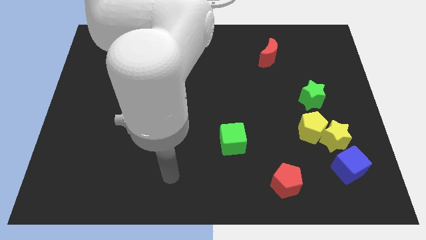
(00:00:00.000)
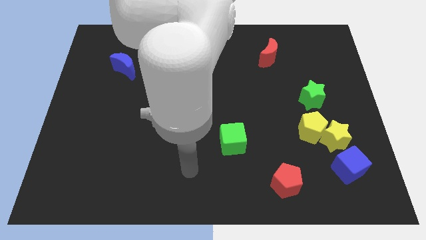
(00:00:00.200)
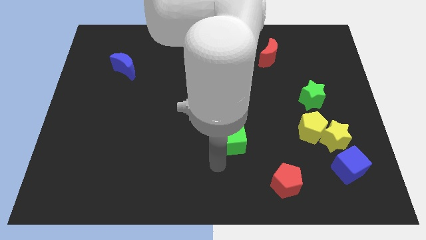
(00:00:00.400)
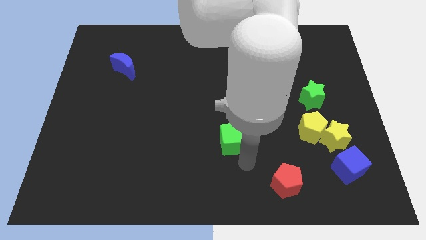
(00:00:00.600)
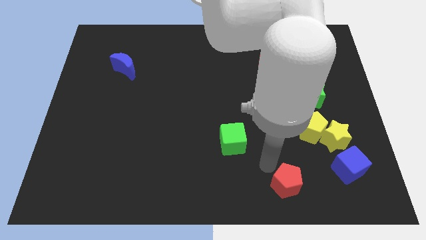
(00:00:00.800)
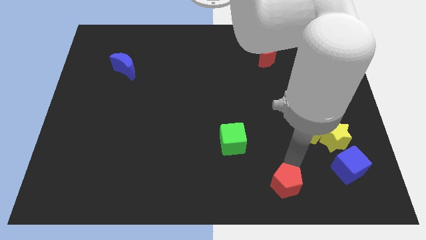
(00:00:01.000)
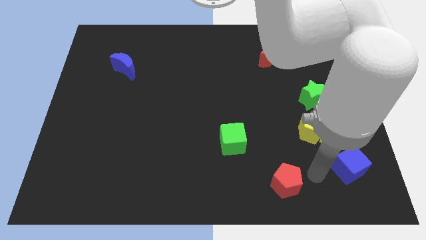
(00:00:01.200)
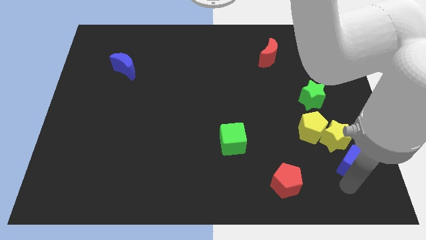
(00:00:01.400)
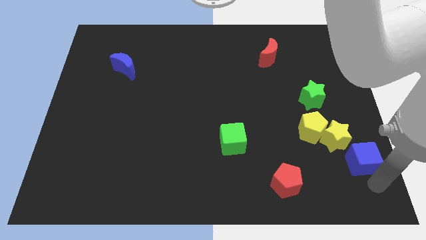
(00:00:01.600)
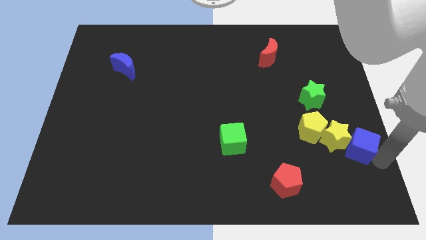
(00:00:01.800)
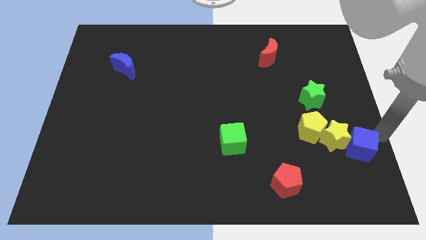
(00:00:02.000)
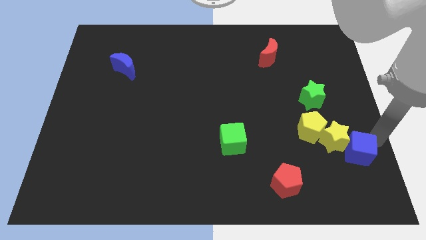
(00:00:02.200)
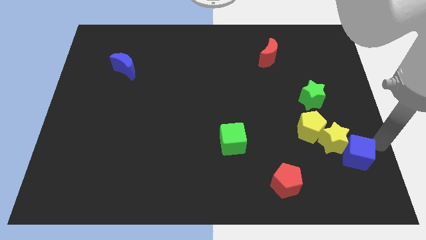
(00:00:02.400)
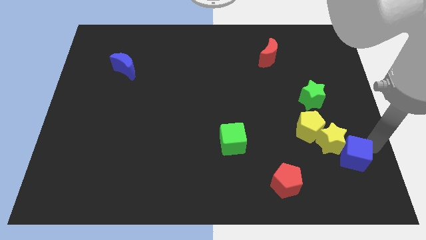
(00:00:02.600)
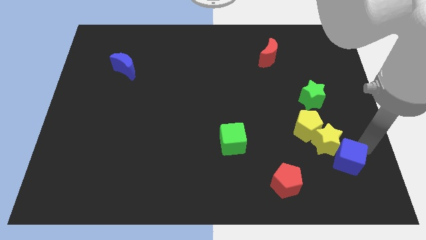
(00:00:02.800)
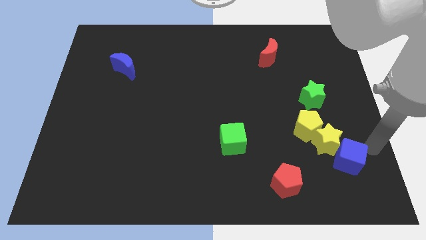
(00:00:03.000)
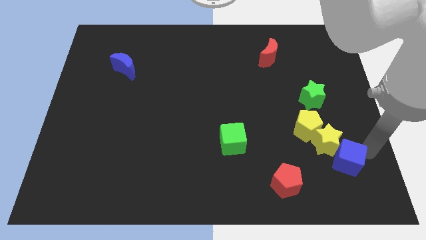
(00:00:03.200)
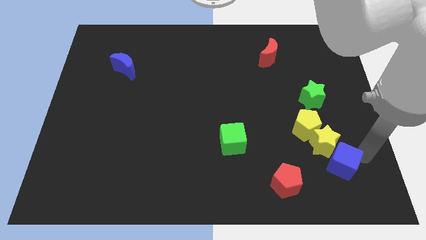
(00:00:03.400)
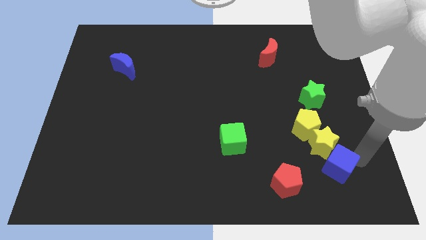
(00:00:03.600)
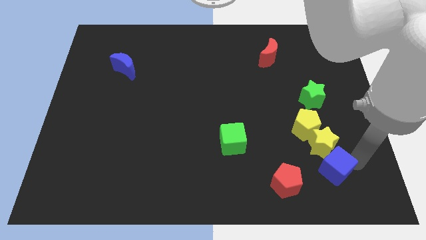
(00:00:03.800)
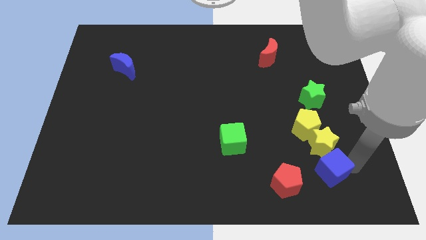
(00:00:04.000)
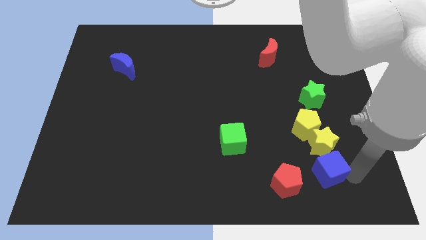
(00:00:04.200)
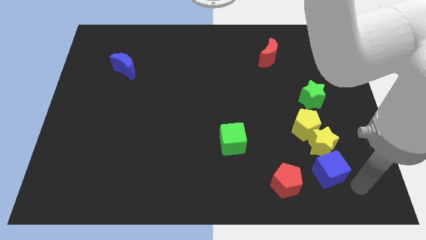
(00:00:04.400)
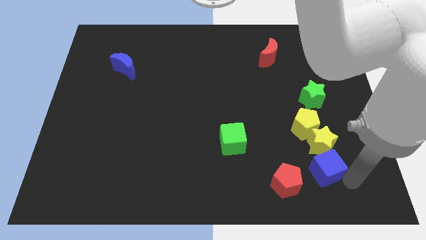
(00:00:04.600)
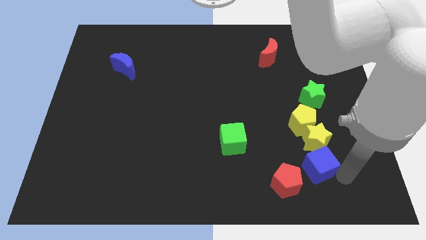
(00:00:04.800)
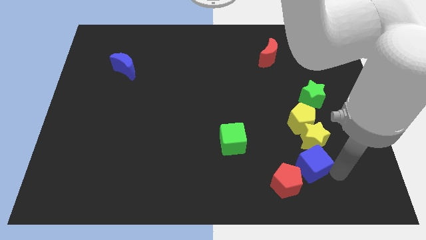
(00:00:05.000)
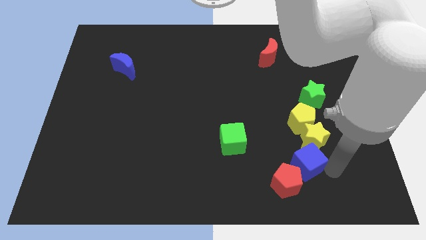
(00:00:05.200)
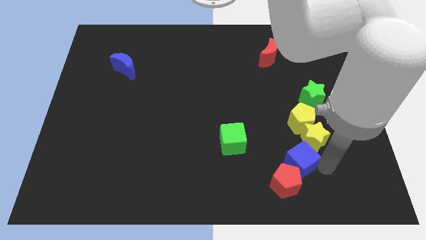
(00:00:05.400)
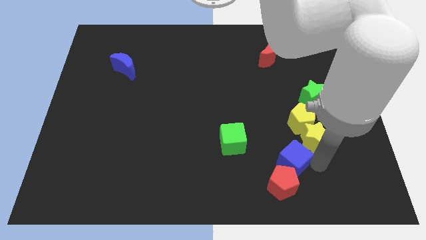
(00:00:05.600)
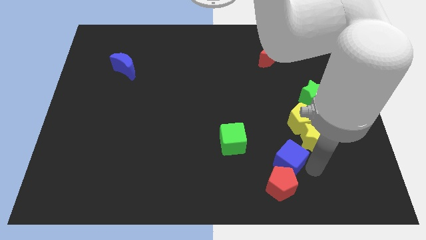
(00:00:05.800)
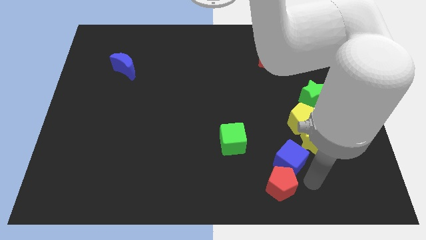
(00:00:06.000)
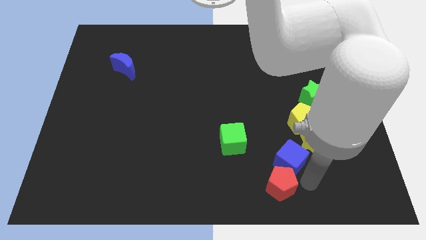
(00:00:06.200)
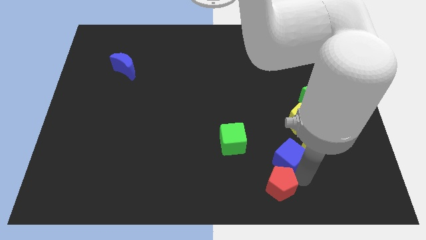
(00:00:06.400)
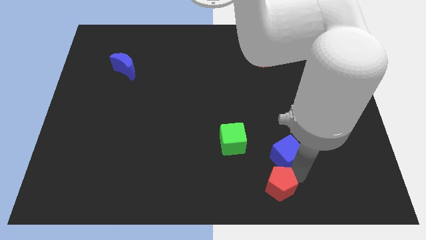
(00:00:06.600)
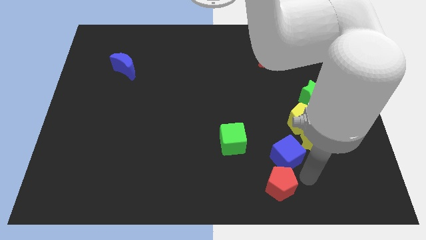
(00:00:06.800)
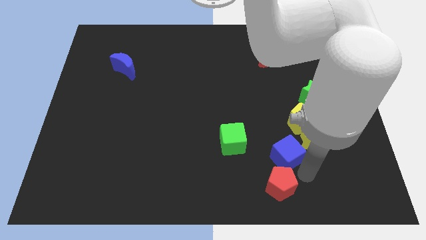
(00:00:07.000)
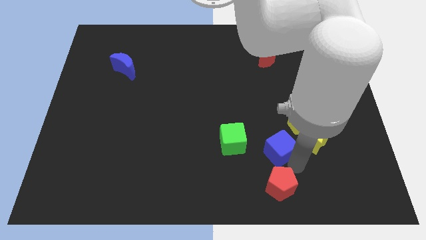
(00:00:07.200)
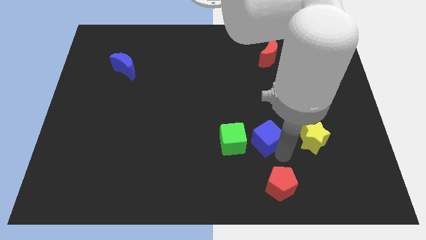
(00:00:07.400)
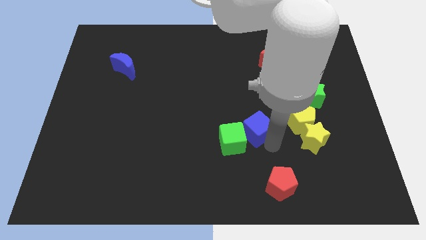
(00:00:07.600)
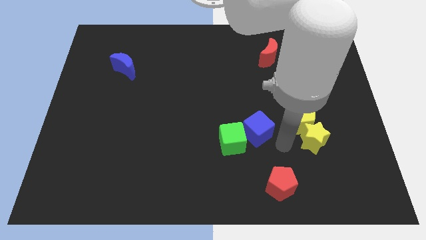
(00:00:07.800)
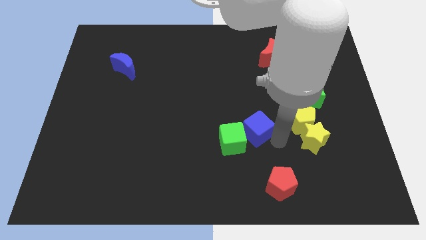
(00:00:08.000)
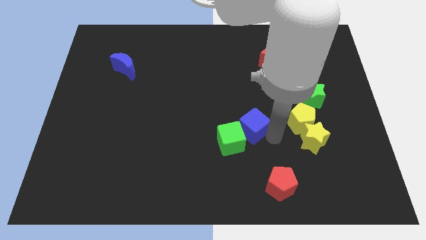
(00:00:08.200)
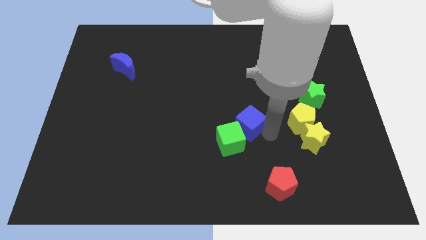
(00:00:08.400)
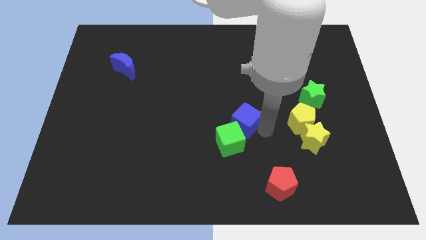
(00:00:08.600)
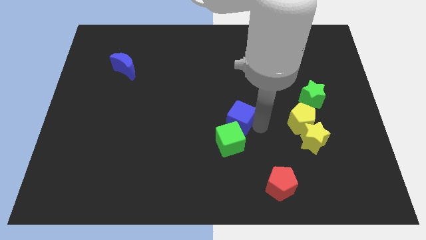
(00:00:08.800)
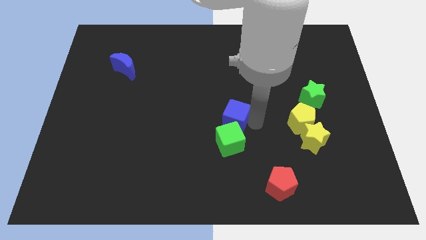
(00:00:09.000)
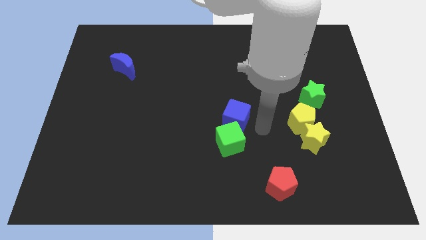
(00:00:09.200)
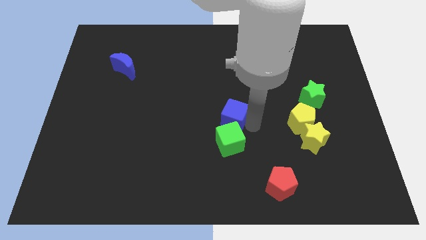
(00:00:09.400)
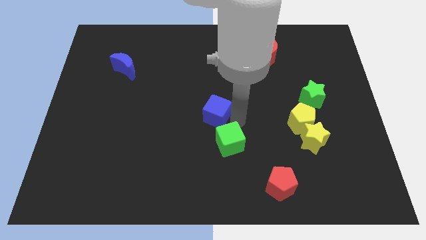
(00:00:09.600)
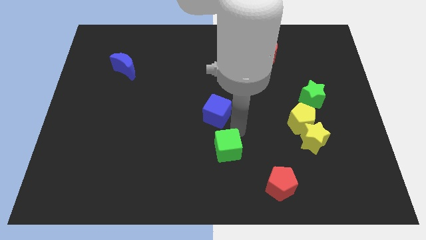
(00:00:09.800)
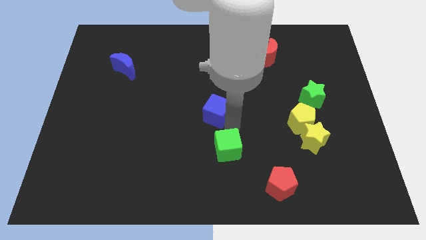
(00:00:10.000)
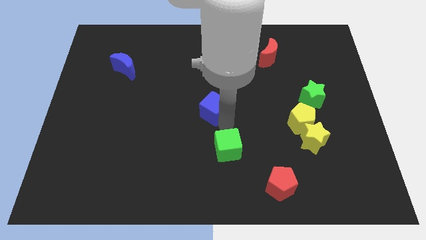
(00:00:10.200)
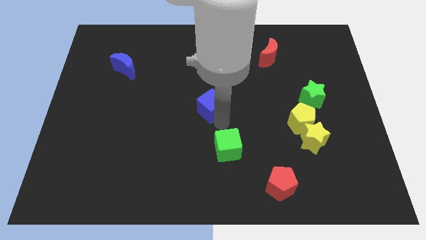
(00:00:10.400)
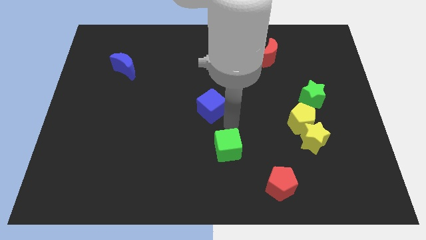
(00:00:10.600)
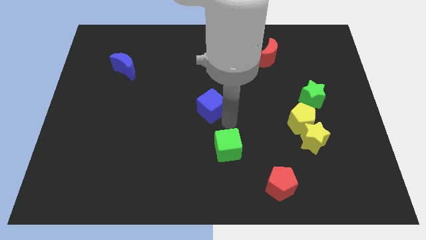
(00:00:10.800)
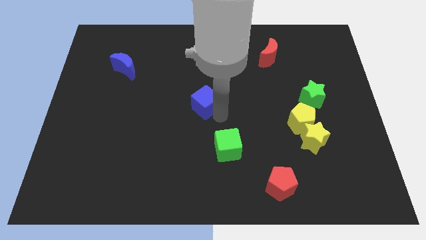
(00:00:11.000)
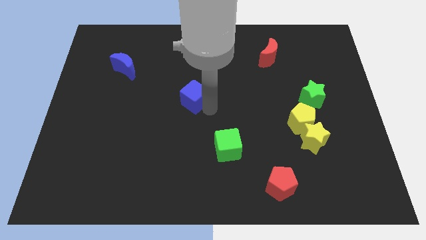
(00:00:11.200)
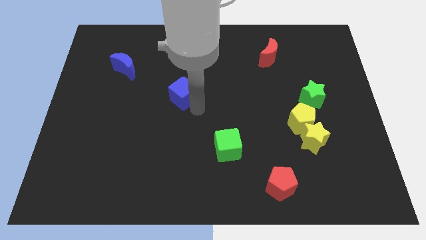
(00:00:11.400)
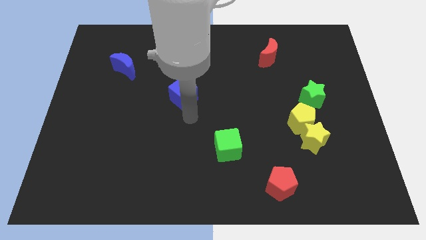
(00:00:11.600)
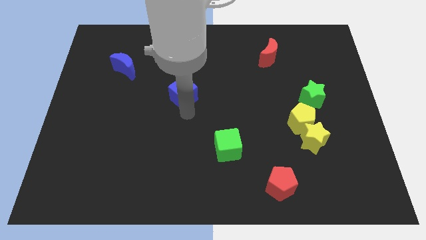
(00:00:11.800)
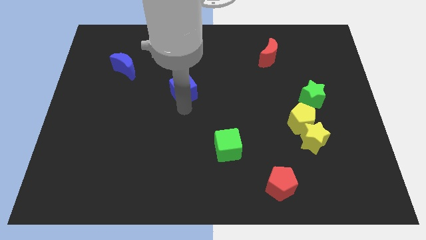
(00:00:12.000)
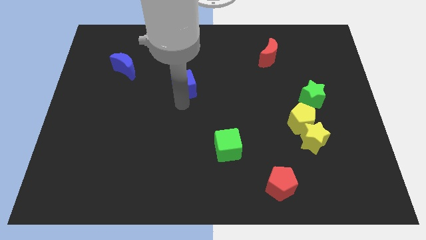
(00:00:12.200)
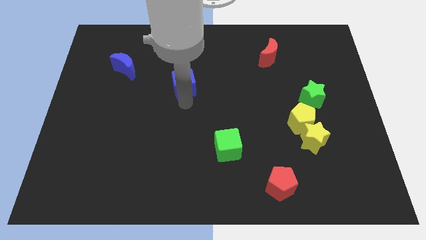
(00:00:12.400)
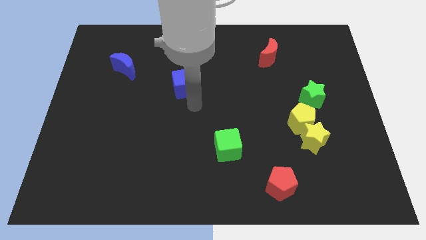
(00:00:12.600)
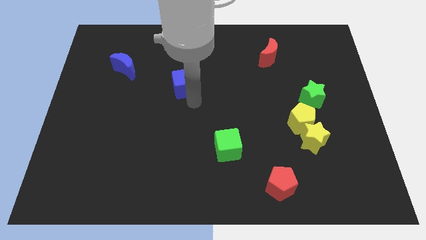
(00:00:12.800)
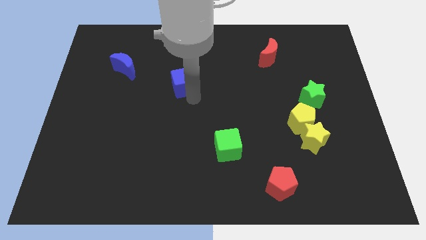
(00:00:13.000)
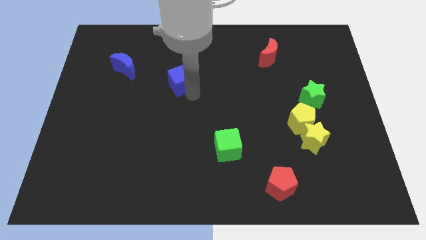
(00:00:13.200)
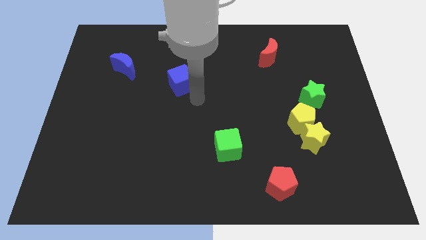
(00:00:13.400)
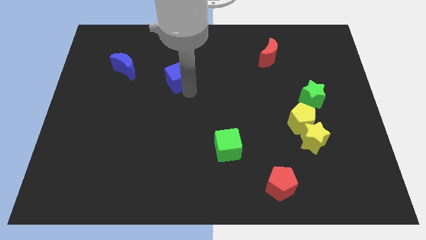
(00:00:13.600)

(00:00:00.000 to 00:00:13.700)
put the blue cube to the right side of the blue moon
